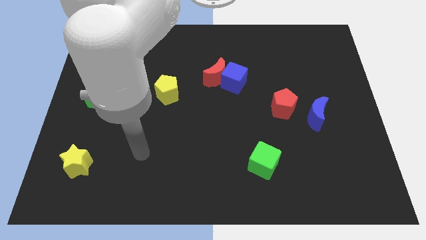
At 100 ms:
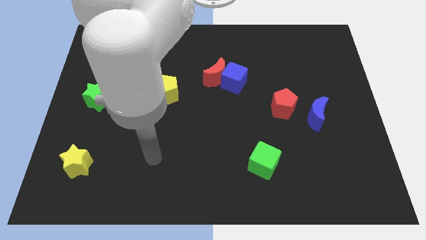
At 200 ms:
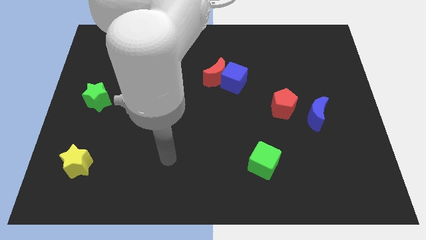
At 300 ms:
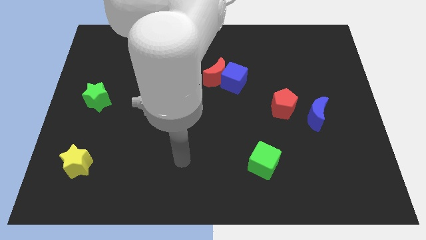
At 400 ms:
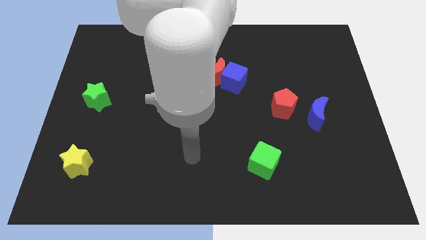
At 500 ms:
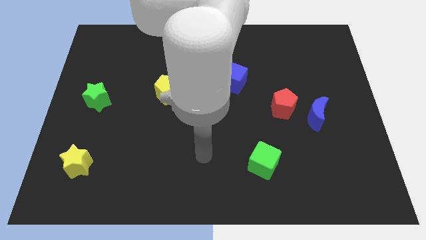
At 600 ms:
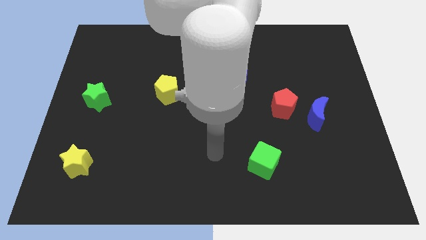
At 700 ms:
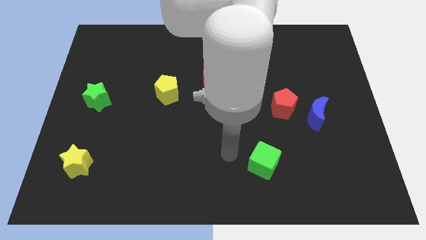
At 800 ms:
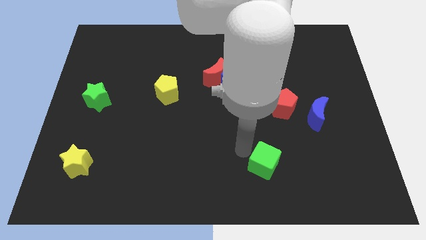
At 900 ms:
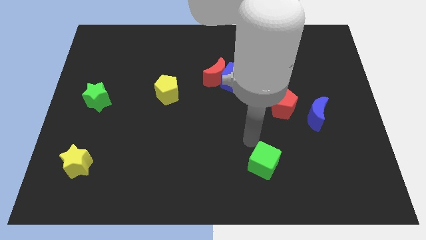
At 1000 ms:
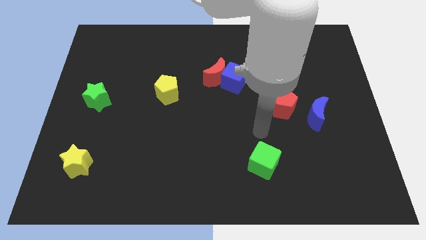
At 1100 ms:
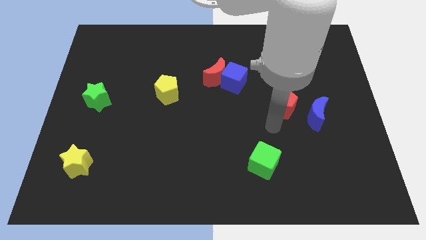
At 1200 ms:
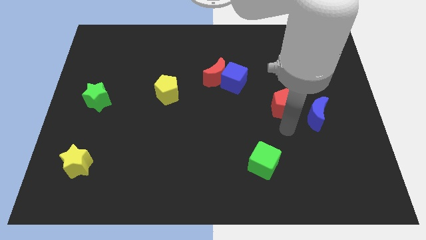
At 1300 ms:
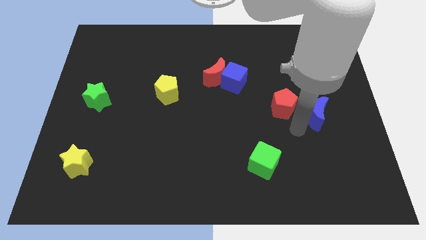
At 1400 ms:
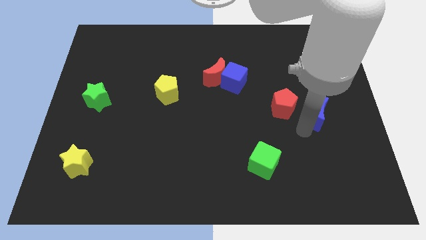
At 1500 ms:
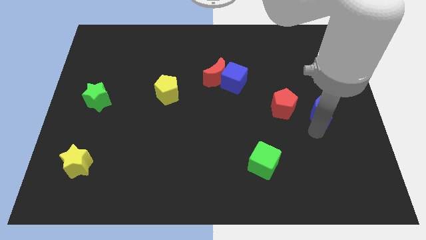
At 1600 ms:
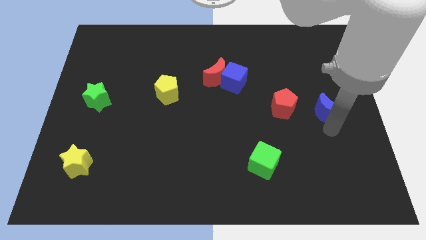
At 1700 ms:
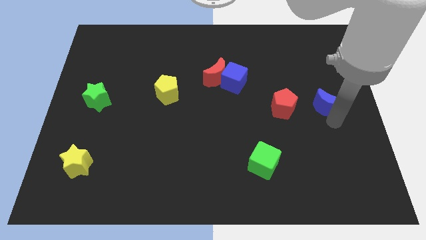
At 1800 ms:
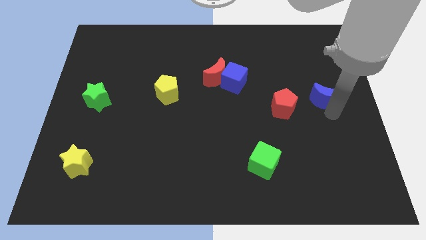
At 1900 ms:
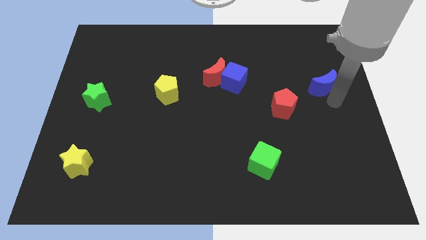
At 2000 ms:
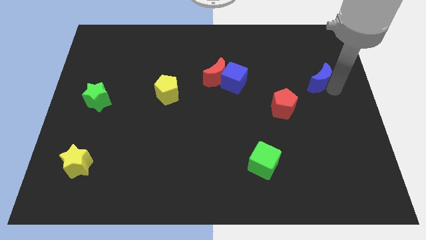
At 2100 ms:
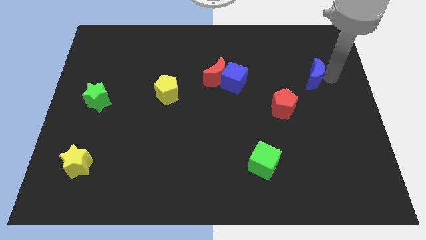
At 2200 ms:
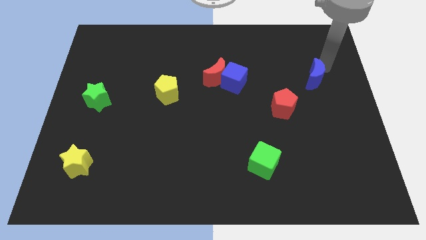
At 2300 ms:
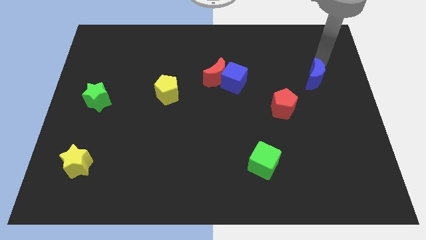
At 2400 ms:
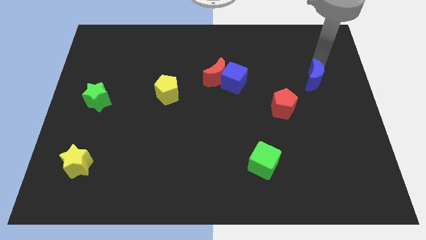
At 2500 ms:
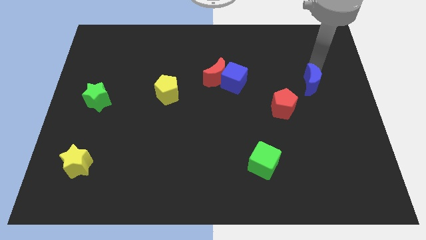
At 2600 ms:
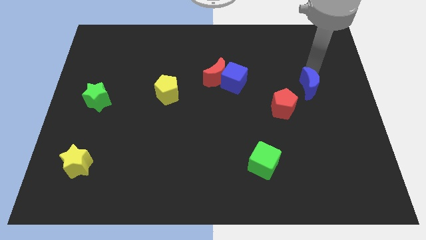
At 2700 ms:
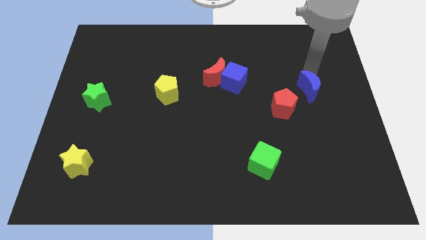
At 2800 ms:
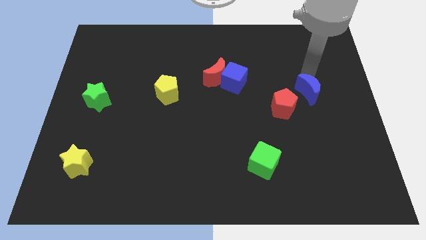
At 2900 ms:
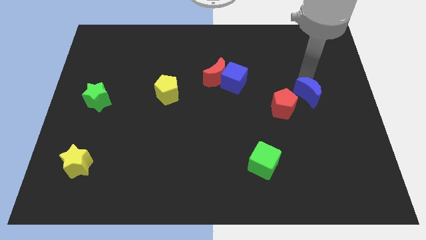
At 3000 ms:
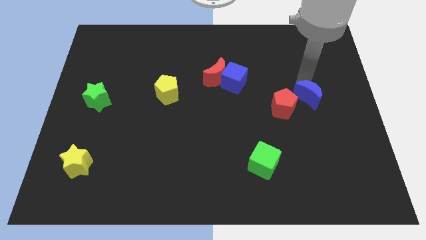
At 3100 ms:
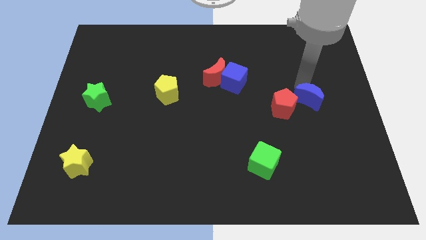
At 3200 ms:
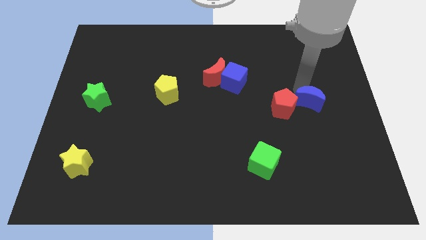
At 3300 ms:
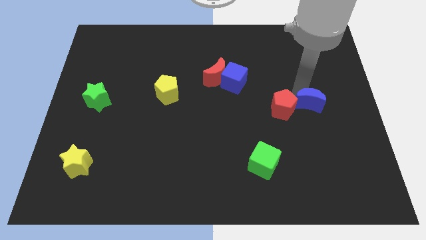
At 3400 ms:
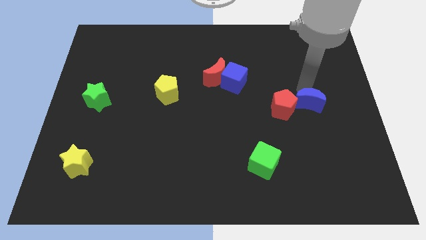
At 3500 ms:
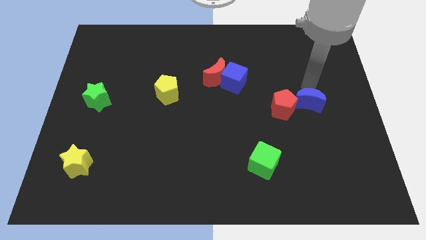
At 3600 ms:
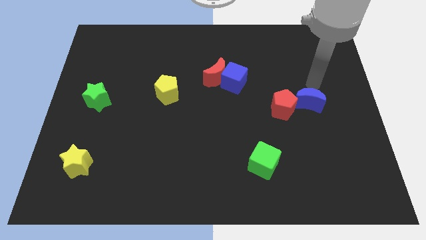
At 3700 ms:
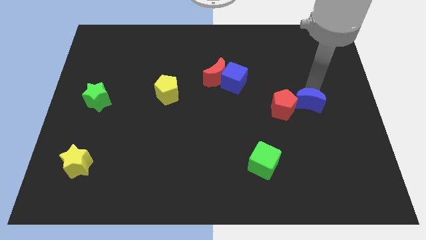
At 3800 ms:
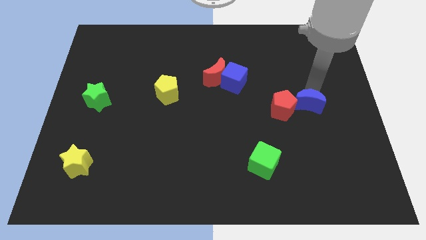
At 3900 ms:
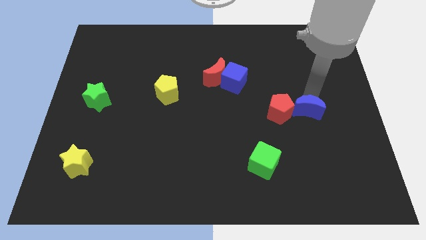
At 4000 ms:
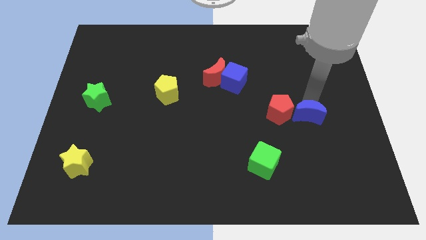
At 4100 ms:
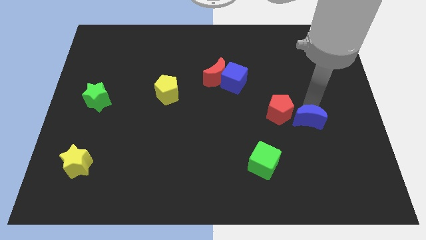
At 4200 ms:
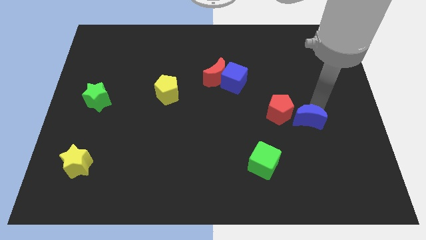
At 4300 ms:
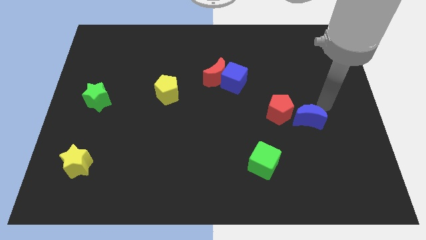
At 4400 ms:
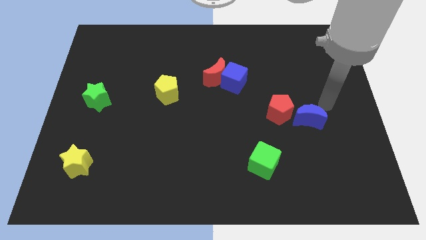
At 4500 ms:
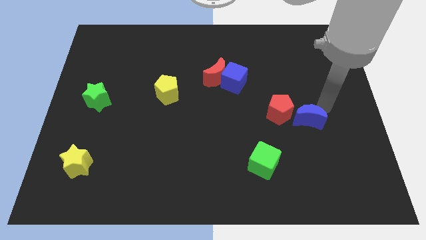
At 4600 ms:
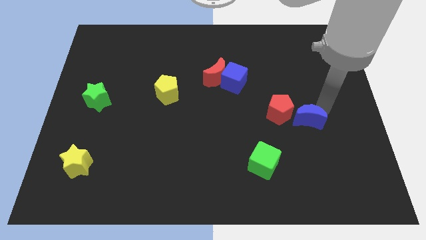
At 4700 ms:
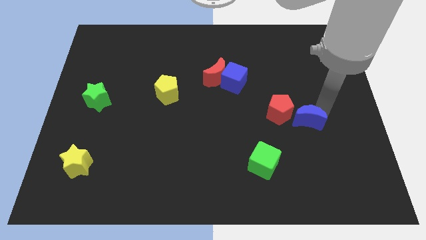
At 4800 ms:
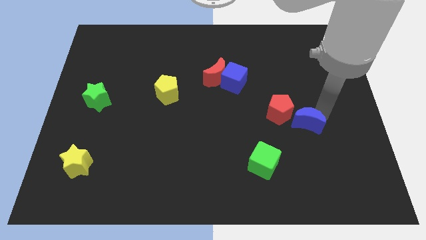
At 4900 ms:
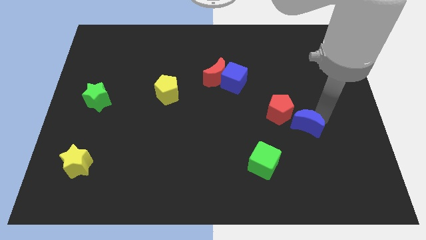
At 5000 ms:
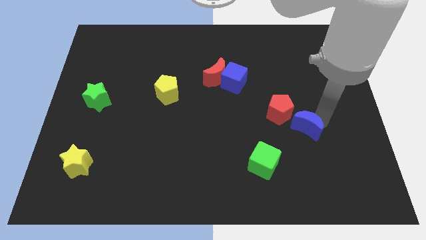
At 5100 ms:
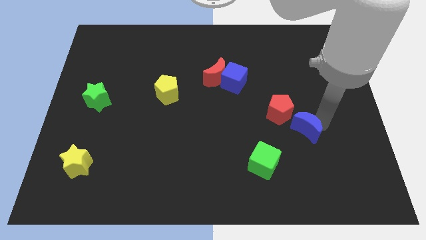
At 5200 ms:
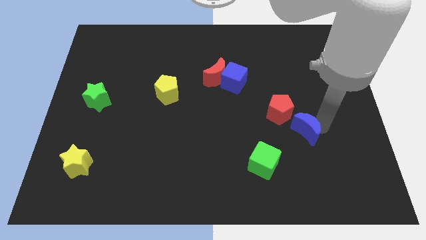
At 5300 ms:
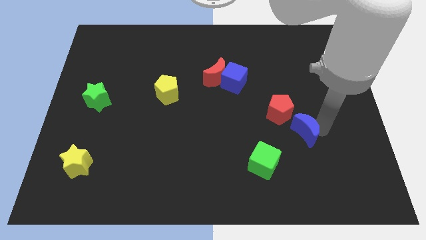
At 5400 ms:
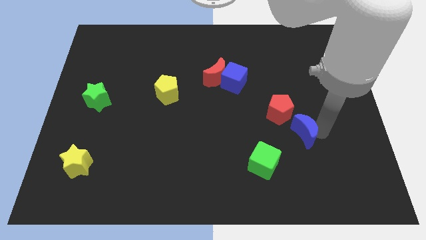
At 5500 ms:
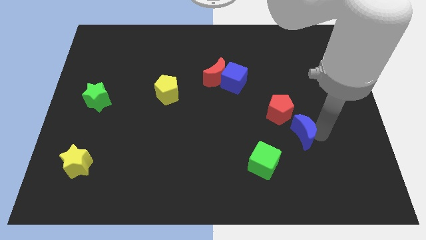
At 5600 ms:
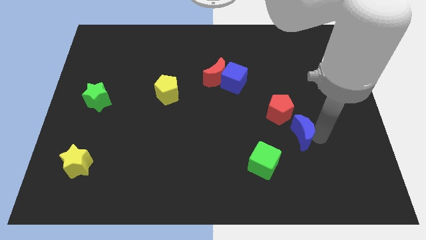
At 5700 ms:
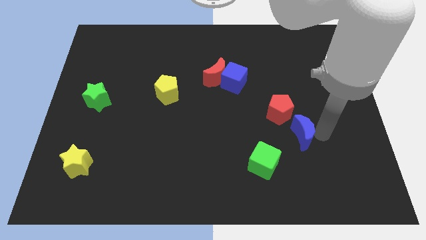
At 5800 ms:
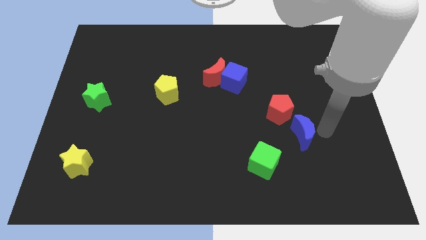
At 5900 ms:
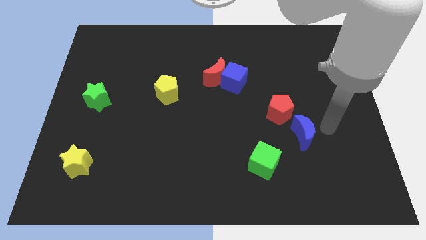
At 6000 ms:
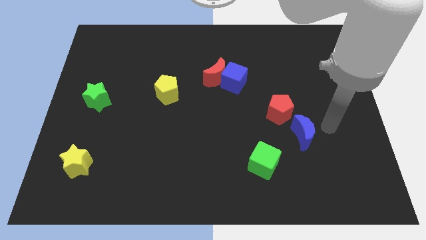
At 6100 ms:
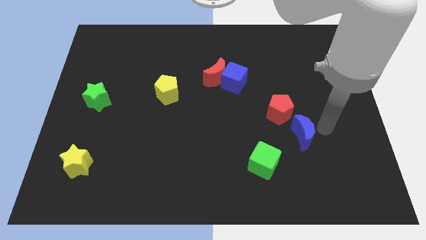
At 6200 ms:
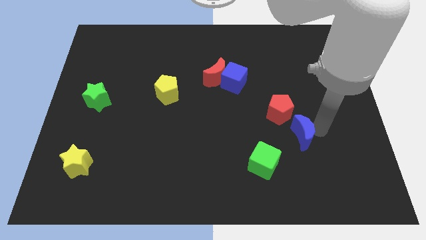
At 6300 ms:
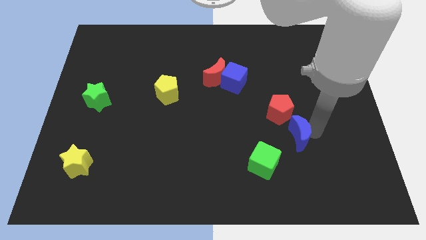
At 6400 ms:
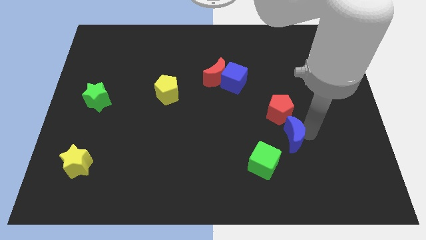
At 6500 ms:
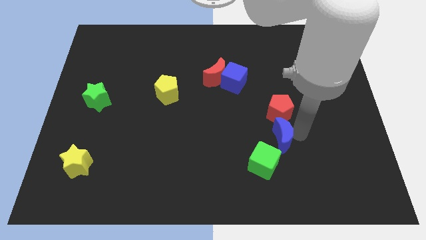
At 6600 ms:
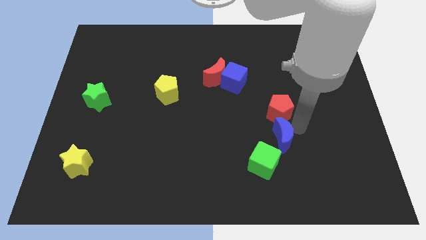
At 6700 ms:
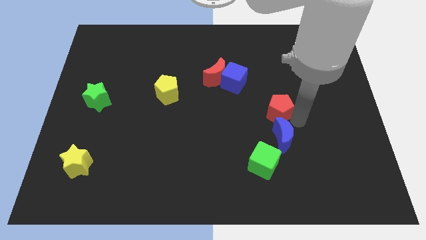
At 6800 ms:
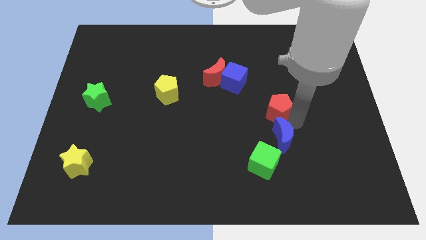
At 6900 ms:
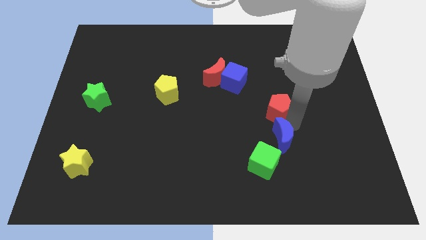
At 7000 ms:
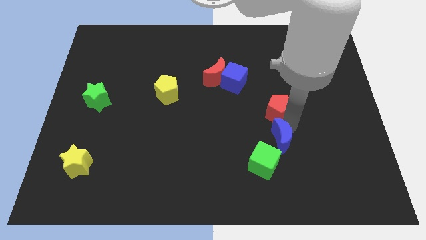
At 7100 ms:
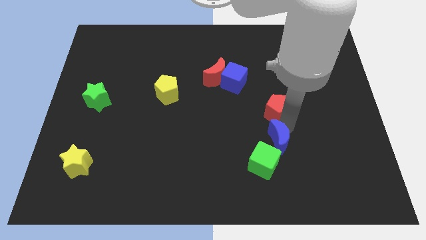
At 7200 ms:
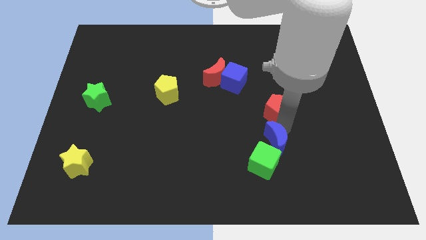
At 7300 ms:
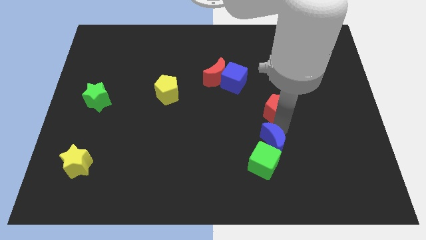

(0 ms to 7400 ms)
slide the blue moon towards the green cube
